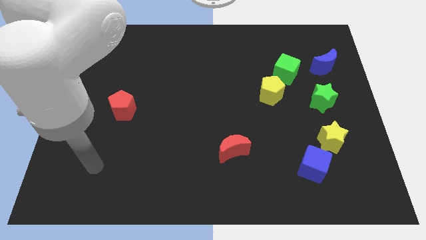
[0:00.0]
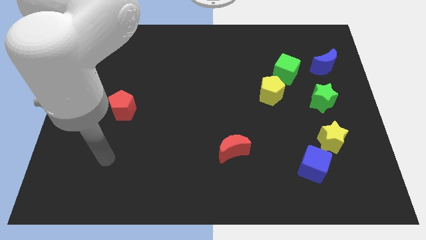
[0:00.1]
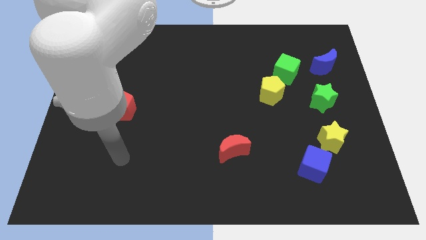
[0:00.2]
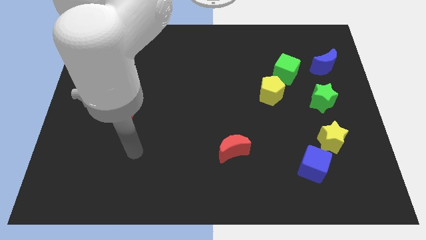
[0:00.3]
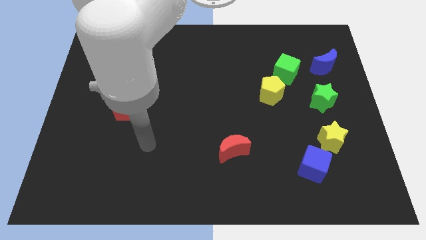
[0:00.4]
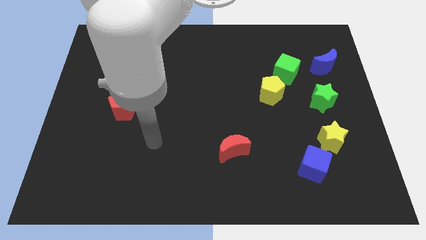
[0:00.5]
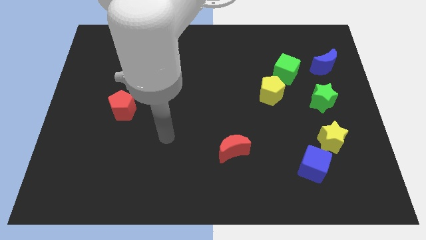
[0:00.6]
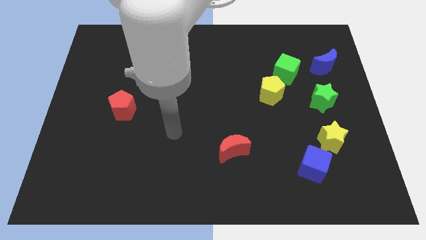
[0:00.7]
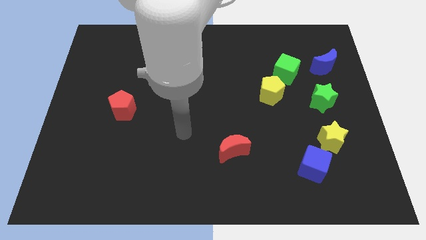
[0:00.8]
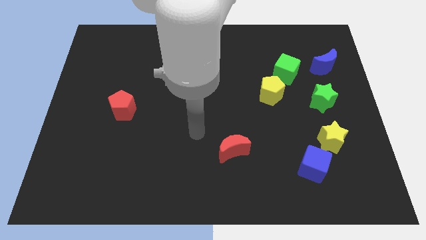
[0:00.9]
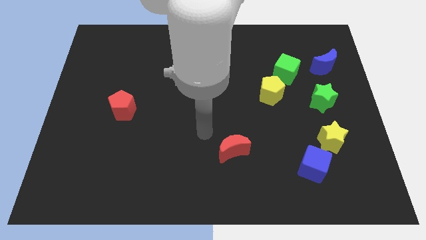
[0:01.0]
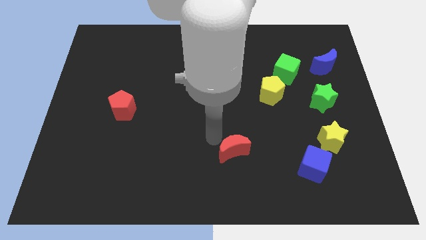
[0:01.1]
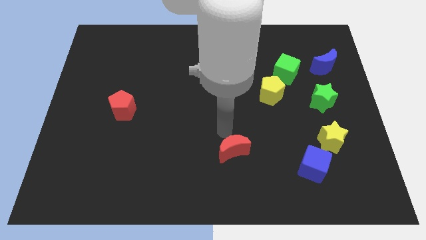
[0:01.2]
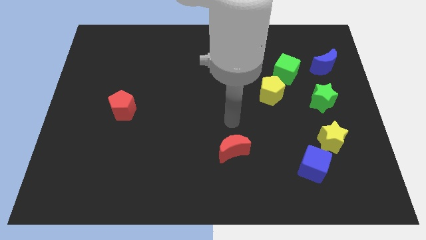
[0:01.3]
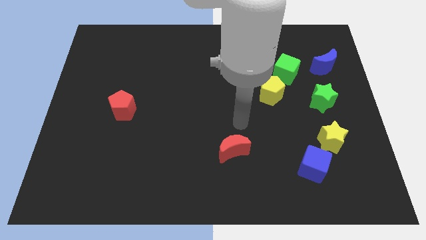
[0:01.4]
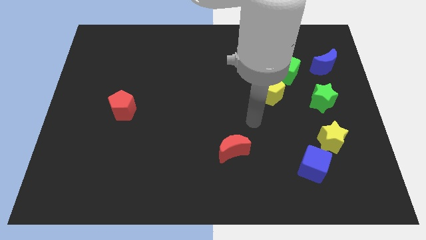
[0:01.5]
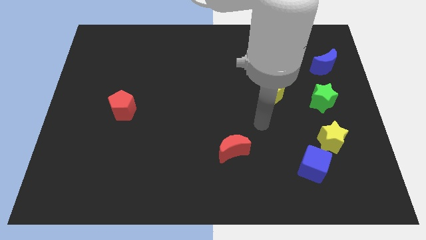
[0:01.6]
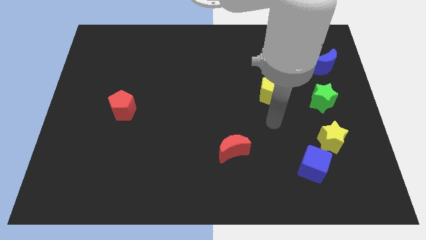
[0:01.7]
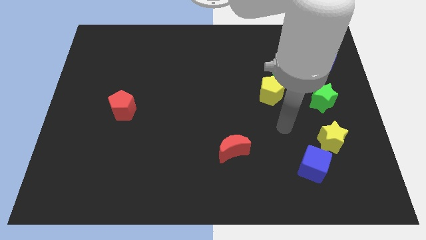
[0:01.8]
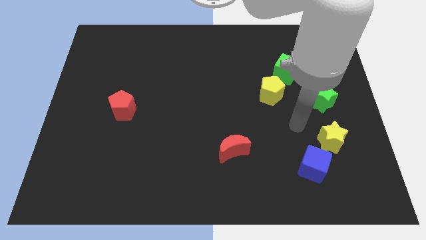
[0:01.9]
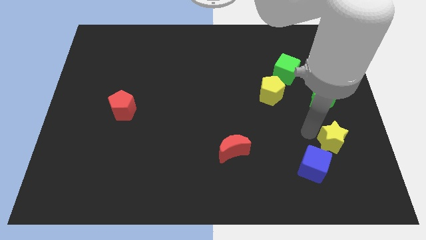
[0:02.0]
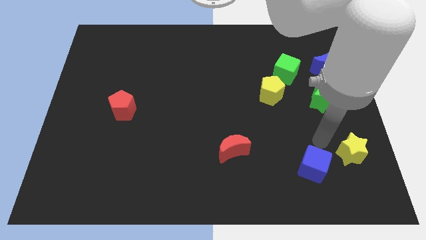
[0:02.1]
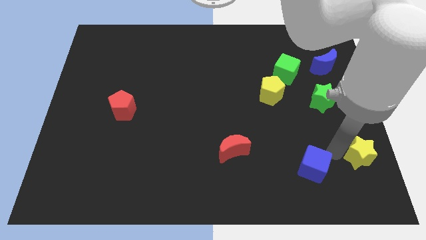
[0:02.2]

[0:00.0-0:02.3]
separate the blue cube from the yellow star

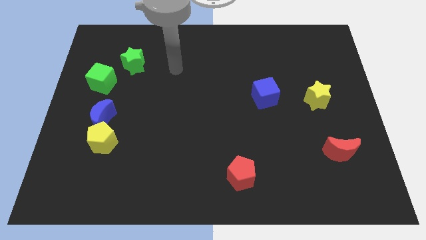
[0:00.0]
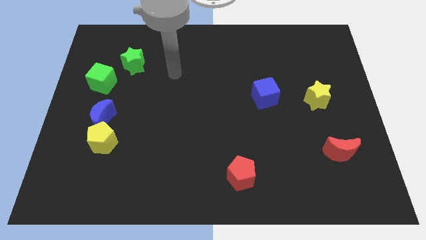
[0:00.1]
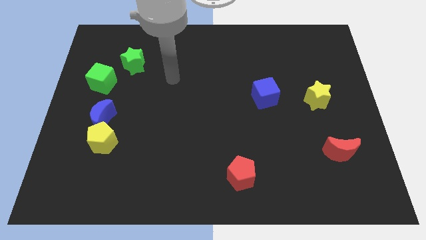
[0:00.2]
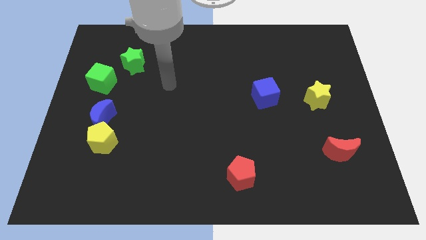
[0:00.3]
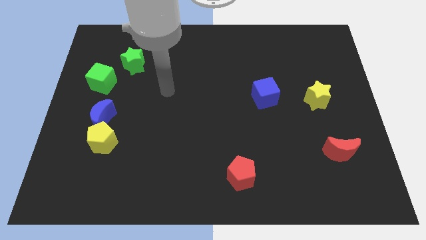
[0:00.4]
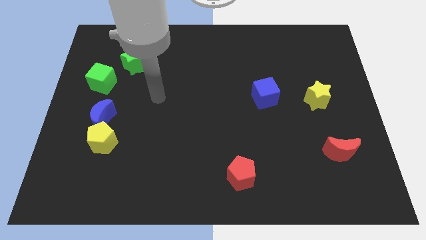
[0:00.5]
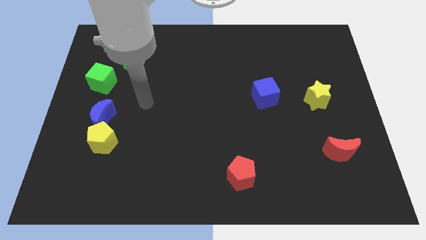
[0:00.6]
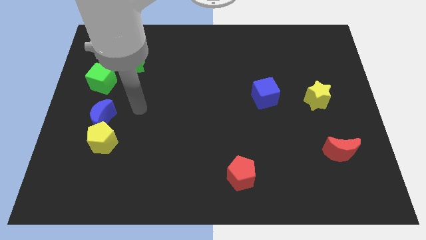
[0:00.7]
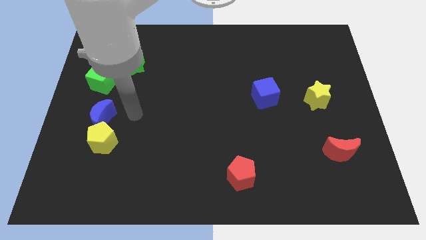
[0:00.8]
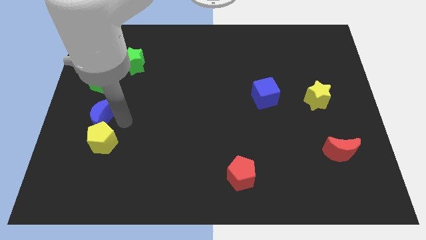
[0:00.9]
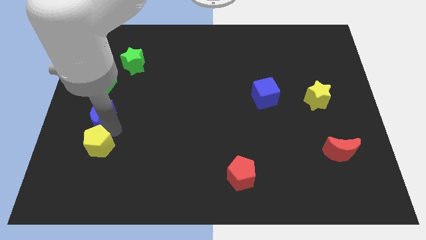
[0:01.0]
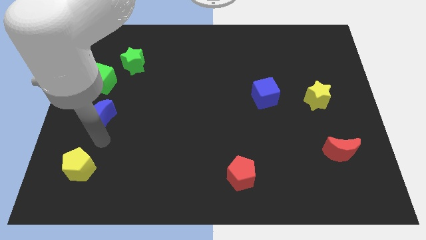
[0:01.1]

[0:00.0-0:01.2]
pull the blue moon apart from the yellow pentagon

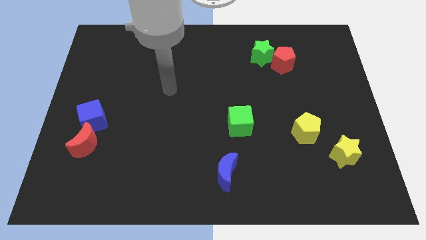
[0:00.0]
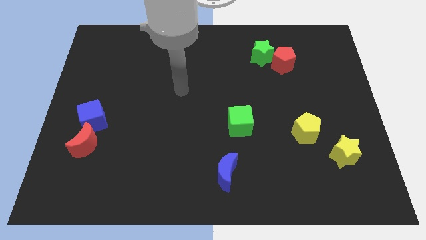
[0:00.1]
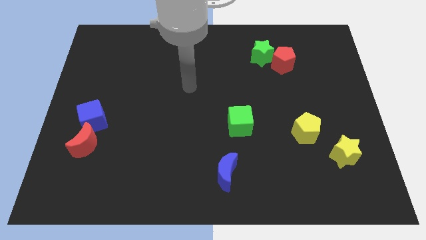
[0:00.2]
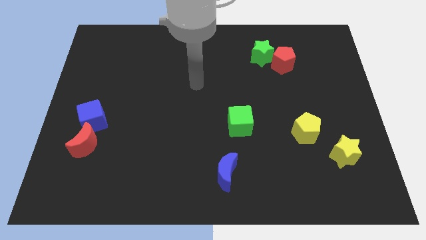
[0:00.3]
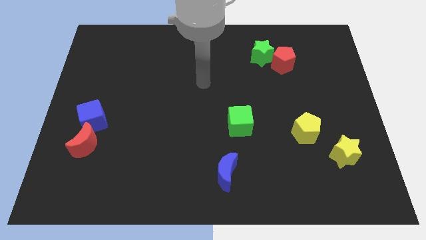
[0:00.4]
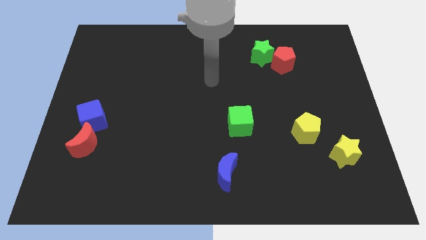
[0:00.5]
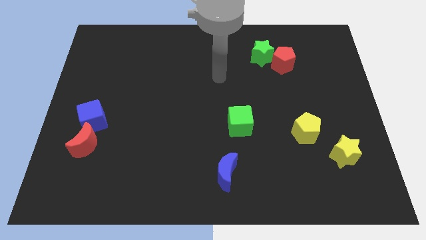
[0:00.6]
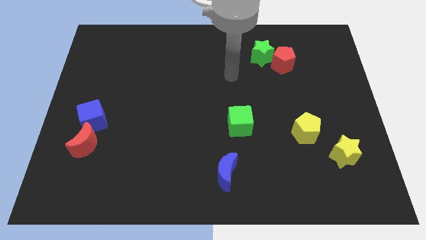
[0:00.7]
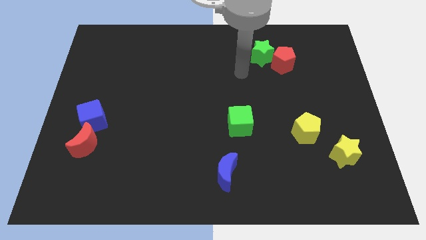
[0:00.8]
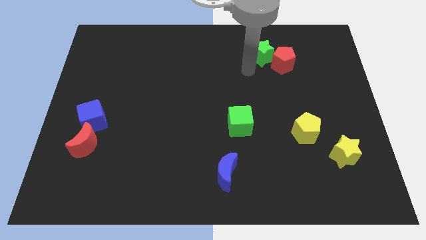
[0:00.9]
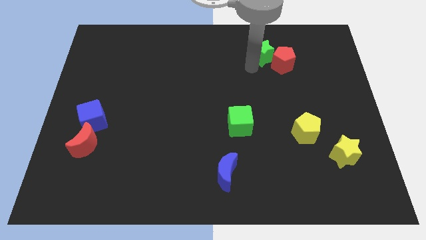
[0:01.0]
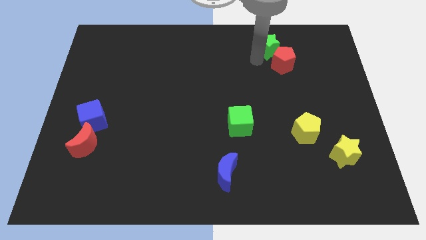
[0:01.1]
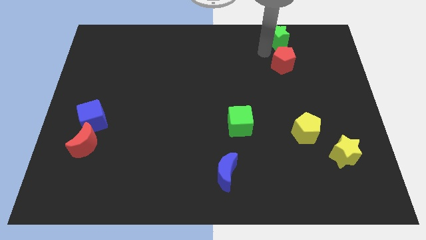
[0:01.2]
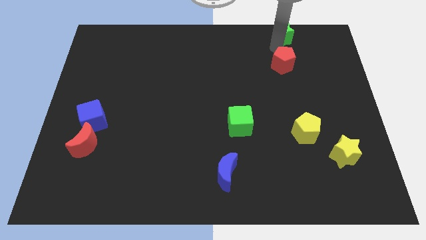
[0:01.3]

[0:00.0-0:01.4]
move the red pentagon away from the green star

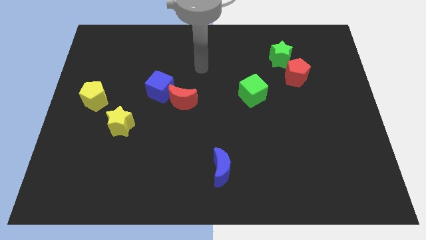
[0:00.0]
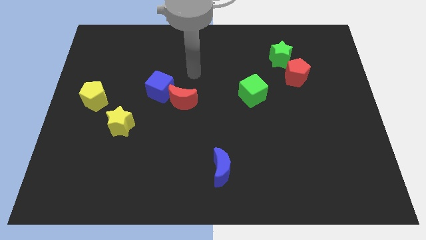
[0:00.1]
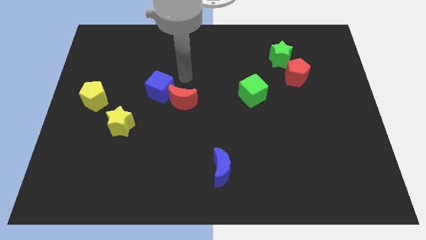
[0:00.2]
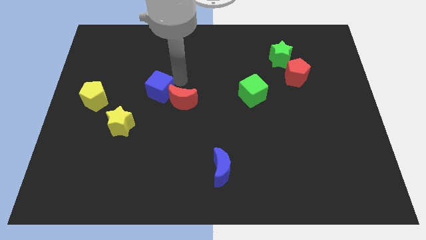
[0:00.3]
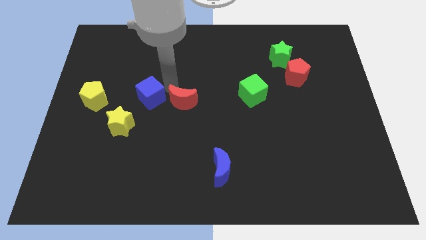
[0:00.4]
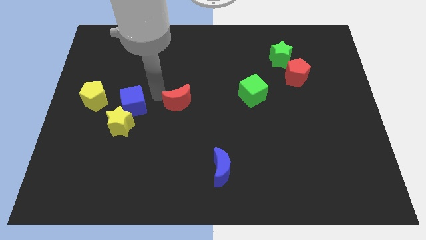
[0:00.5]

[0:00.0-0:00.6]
move the red moon away from the blue cube

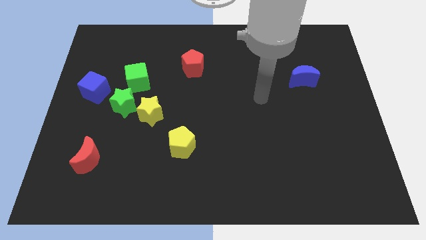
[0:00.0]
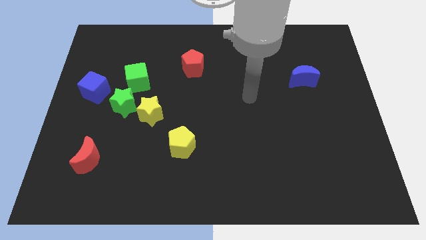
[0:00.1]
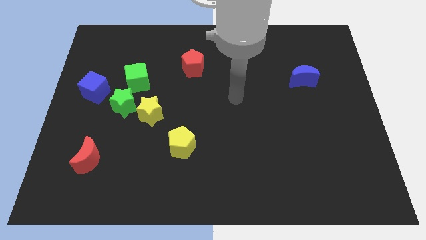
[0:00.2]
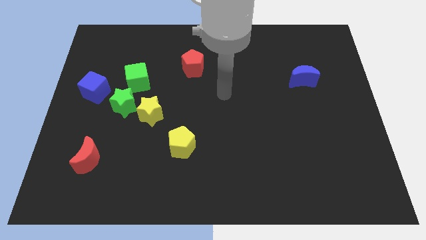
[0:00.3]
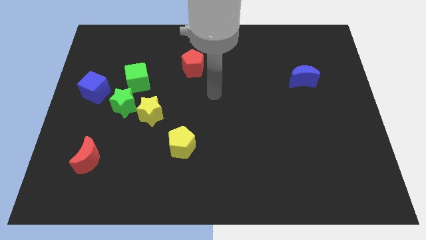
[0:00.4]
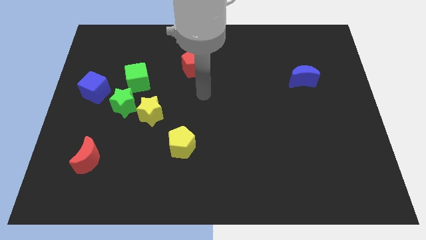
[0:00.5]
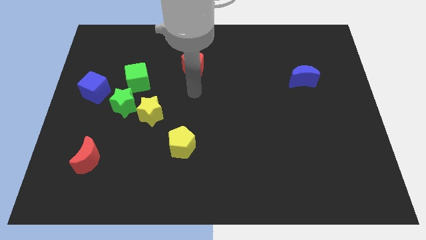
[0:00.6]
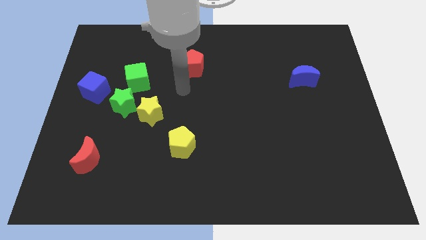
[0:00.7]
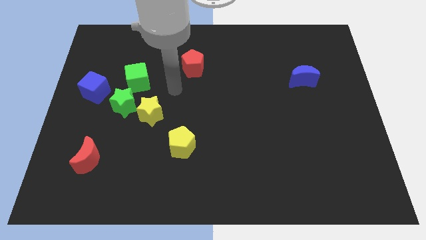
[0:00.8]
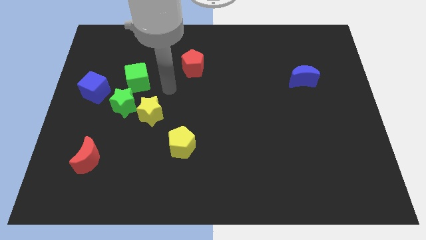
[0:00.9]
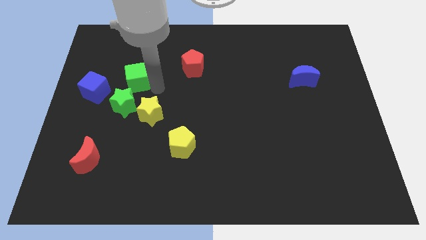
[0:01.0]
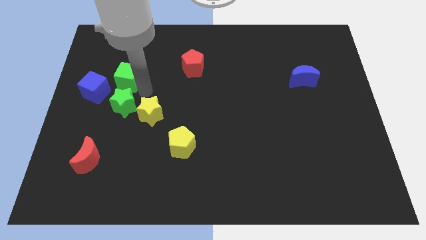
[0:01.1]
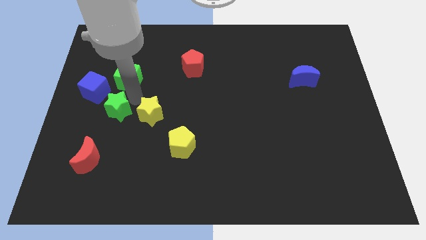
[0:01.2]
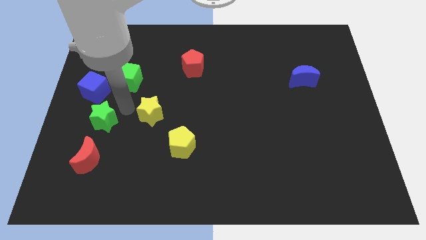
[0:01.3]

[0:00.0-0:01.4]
move the yellow star away from the green star

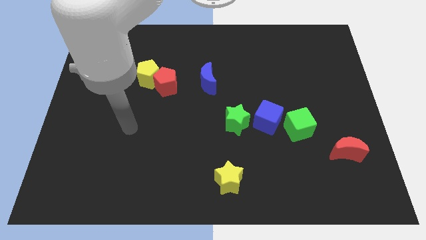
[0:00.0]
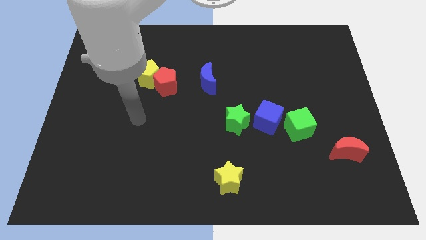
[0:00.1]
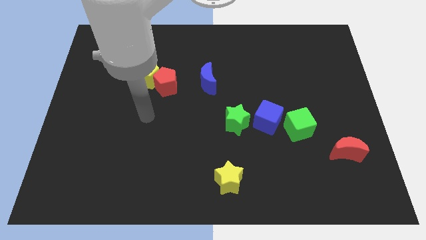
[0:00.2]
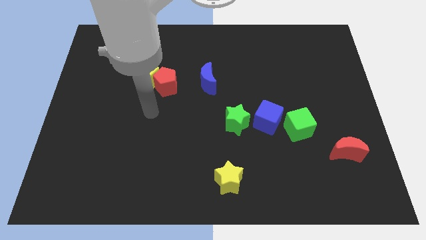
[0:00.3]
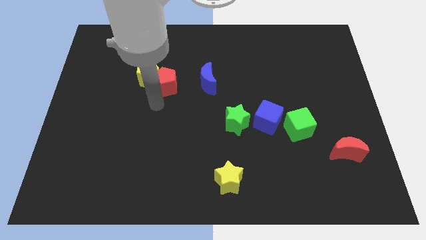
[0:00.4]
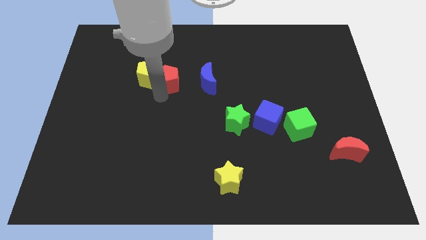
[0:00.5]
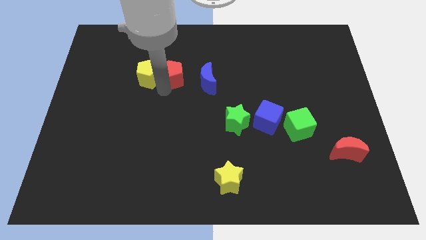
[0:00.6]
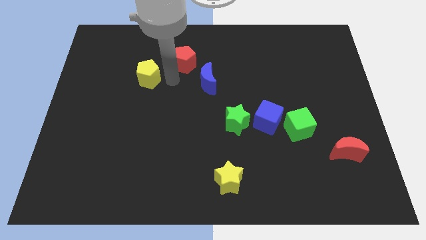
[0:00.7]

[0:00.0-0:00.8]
move the yellow pentagon away from the red pentagon

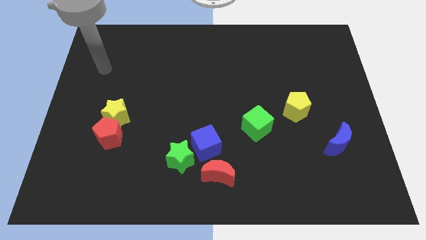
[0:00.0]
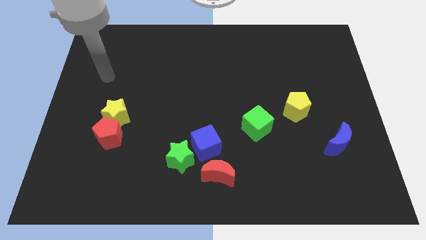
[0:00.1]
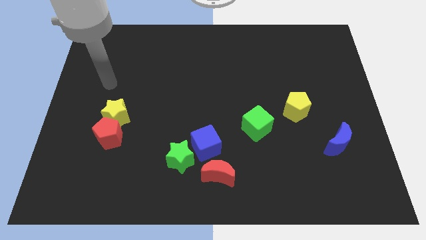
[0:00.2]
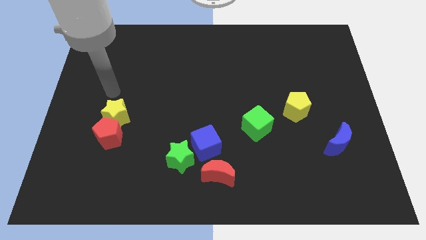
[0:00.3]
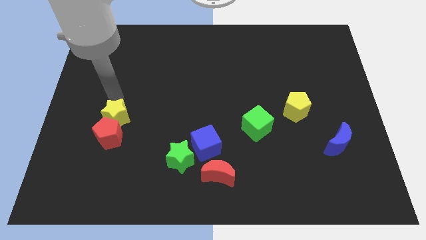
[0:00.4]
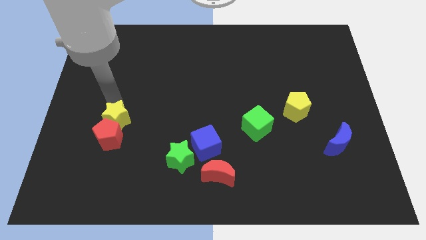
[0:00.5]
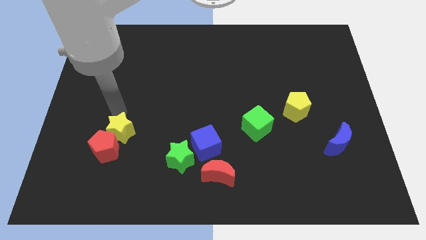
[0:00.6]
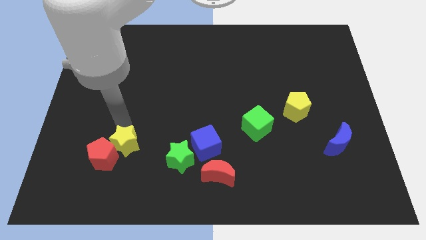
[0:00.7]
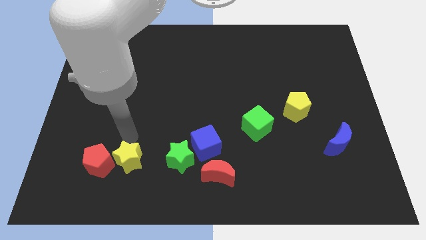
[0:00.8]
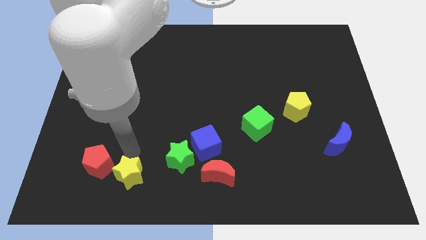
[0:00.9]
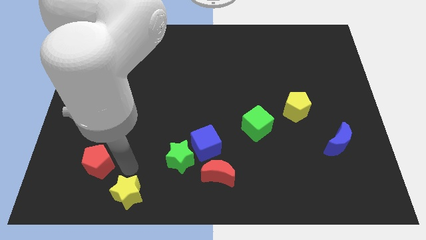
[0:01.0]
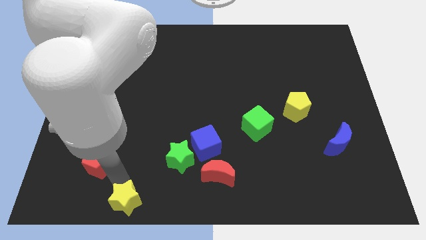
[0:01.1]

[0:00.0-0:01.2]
separate the red pentagon from the yellow star

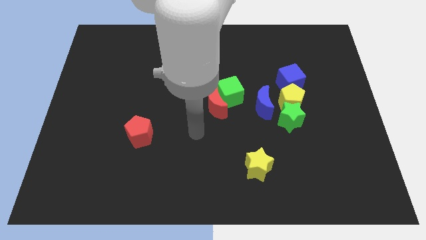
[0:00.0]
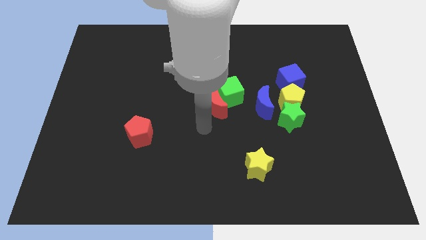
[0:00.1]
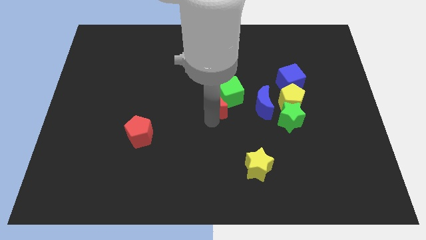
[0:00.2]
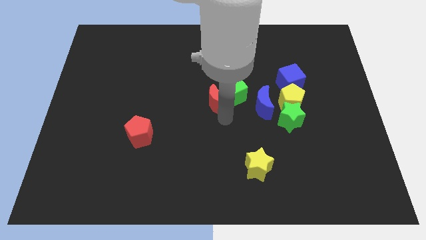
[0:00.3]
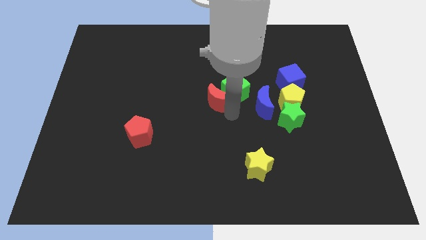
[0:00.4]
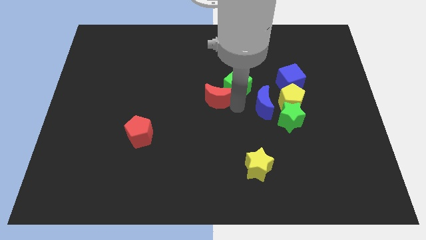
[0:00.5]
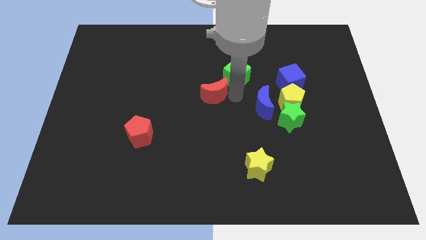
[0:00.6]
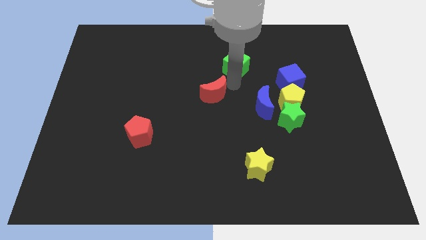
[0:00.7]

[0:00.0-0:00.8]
pull the red moon apart from the green cube
